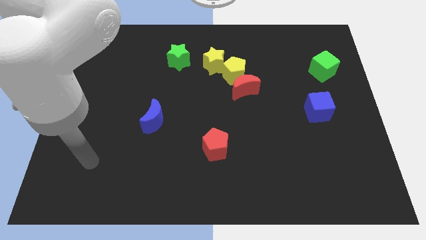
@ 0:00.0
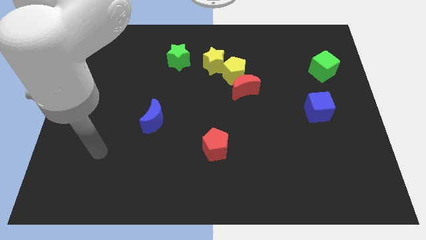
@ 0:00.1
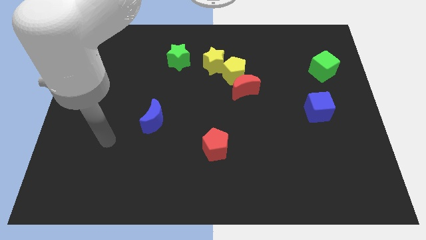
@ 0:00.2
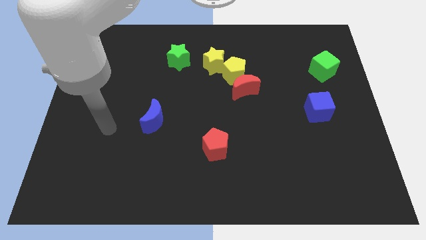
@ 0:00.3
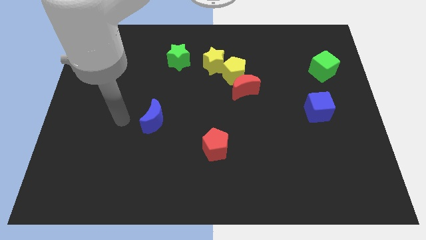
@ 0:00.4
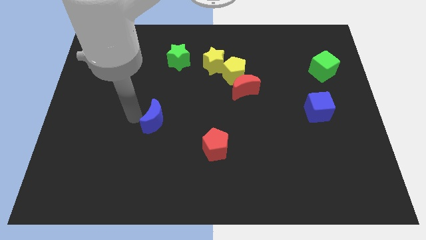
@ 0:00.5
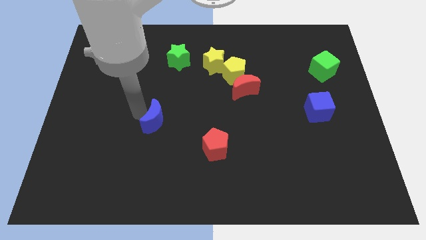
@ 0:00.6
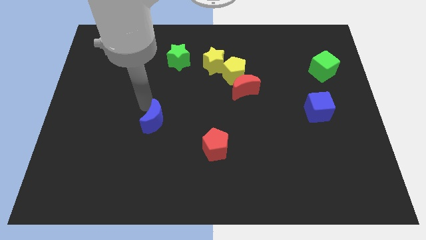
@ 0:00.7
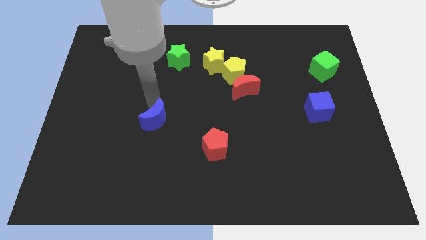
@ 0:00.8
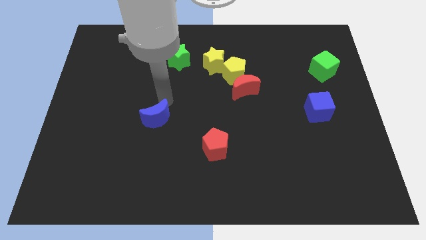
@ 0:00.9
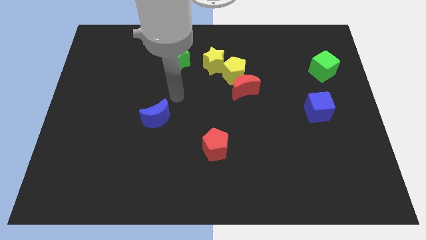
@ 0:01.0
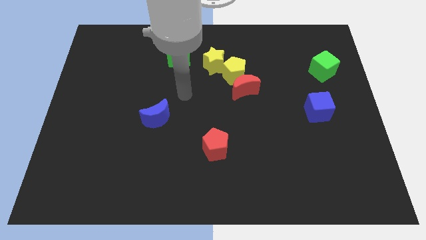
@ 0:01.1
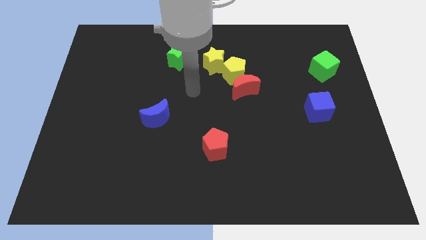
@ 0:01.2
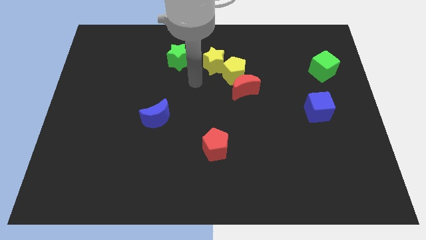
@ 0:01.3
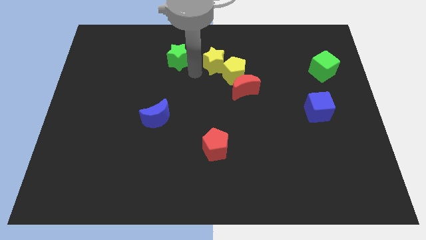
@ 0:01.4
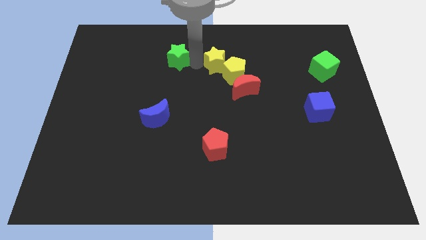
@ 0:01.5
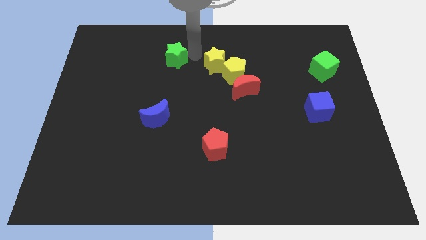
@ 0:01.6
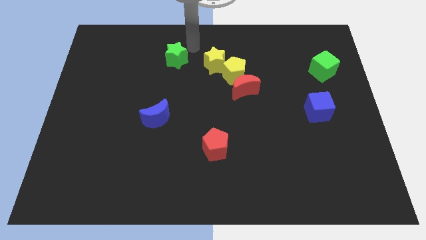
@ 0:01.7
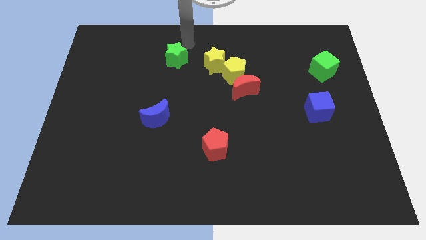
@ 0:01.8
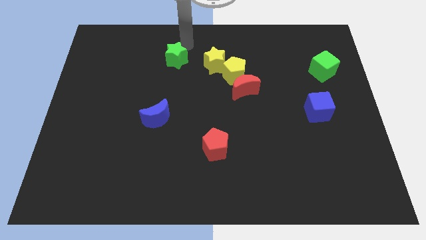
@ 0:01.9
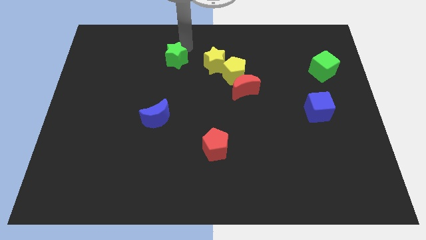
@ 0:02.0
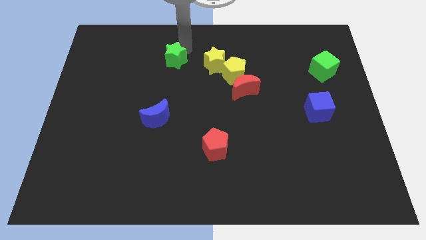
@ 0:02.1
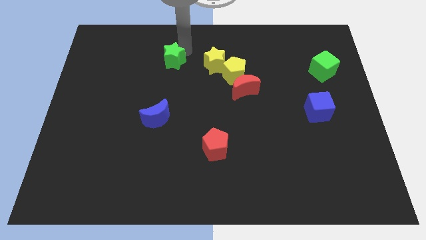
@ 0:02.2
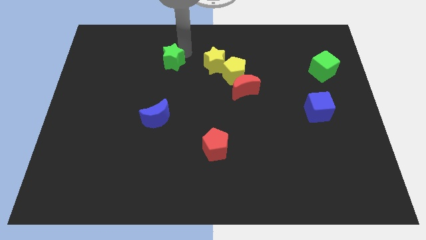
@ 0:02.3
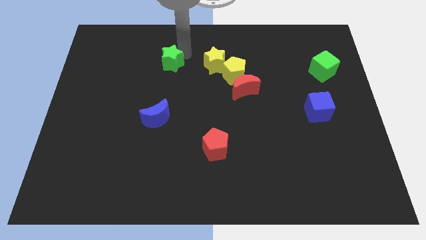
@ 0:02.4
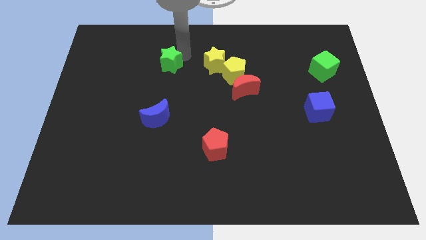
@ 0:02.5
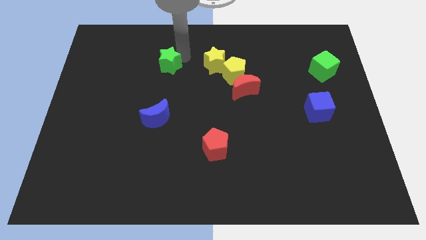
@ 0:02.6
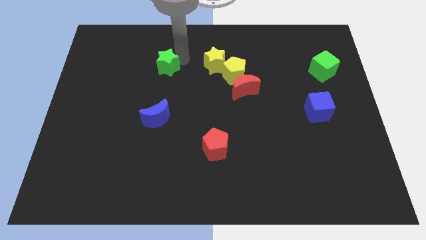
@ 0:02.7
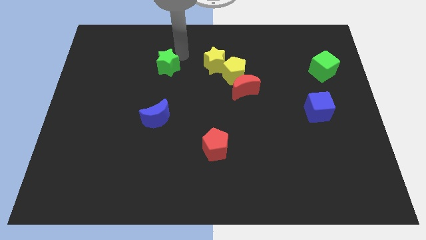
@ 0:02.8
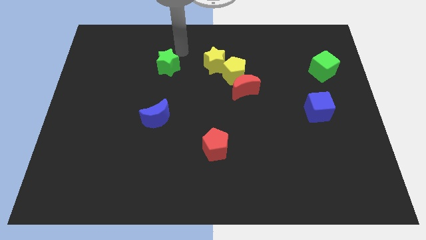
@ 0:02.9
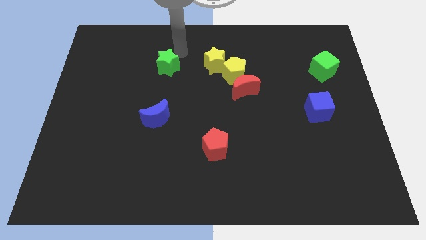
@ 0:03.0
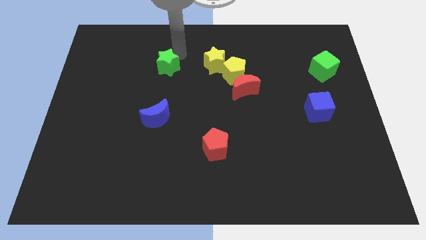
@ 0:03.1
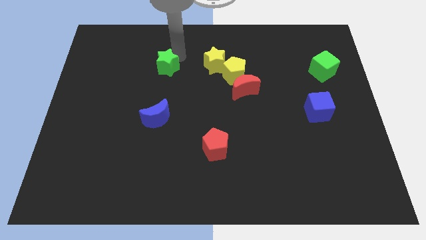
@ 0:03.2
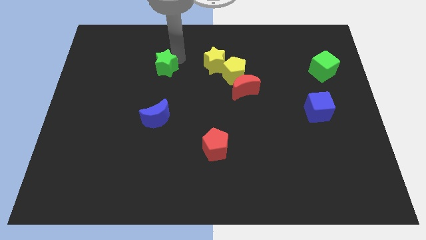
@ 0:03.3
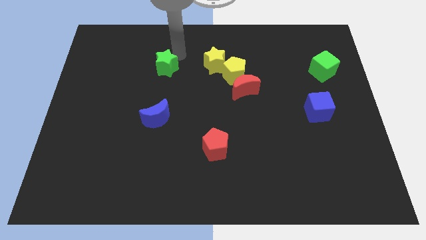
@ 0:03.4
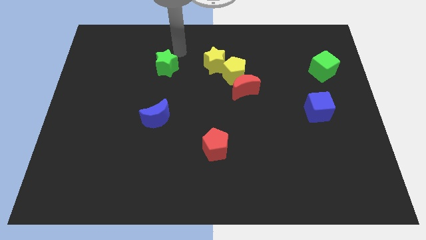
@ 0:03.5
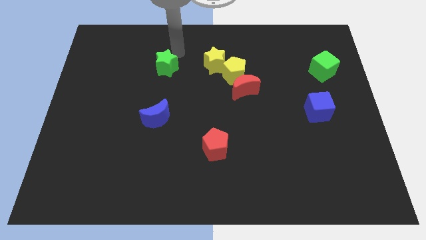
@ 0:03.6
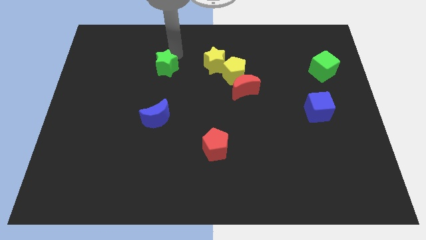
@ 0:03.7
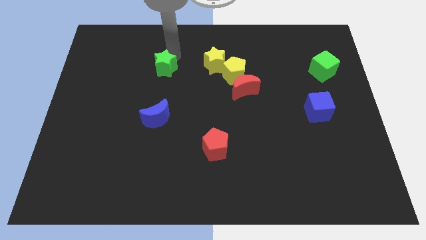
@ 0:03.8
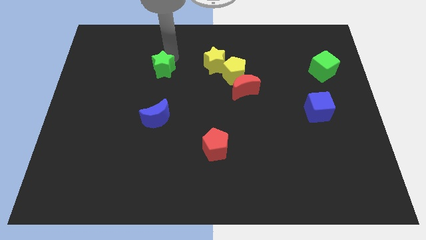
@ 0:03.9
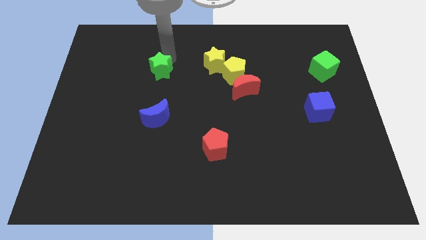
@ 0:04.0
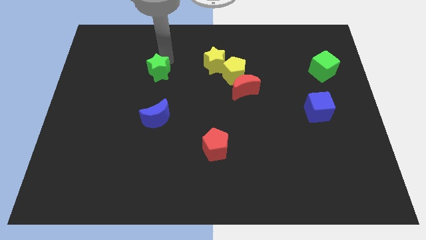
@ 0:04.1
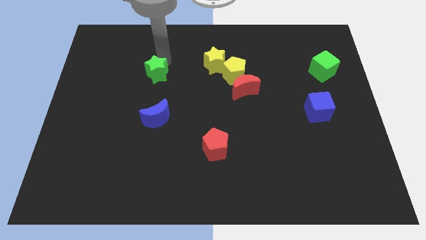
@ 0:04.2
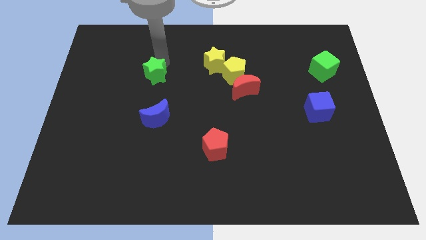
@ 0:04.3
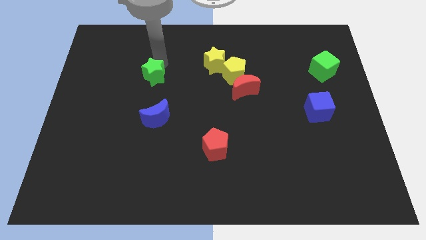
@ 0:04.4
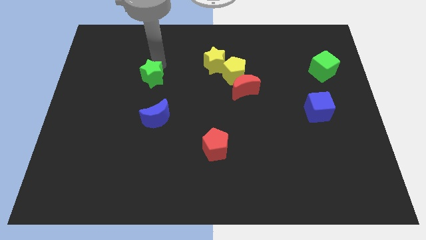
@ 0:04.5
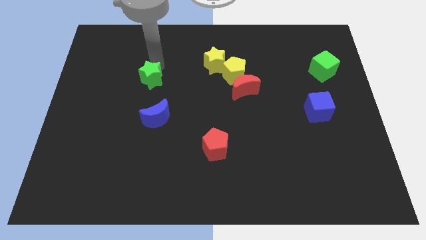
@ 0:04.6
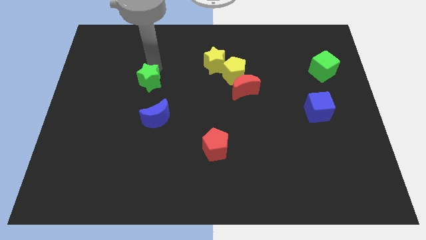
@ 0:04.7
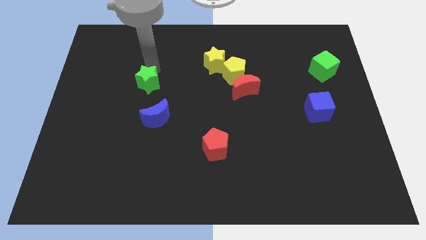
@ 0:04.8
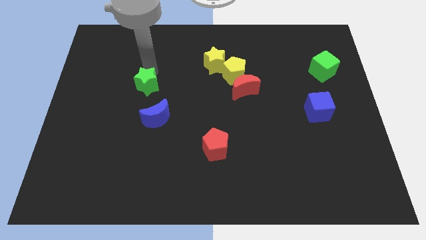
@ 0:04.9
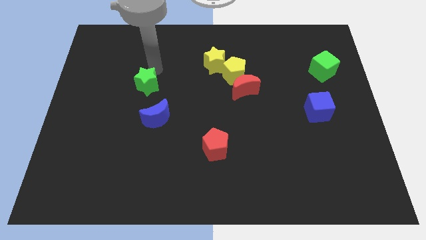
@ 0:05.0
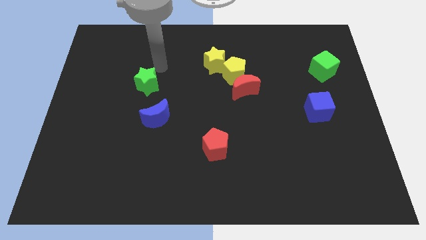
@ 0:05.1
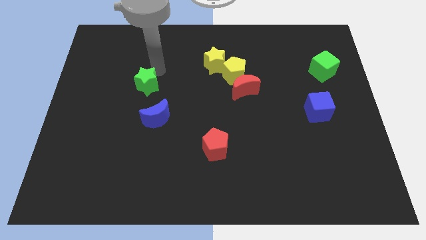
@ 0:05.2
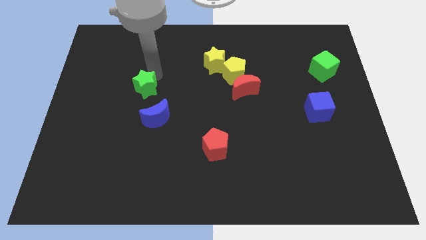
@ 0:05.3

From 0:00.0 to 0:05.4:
move the green star diagonally up and to the left of the blue moon

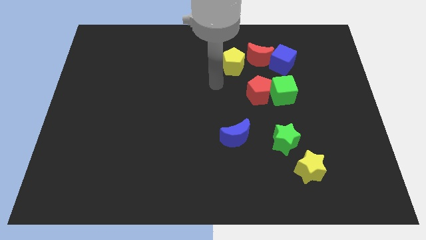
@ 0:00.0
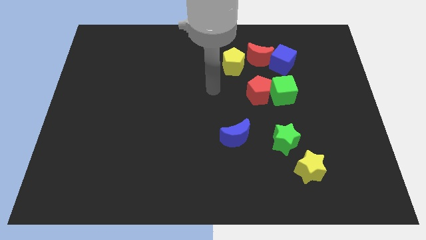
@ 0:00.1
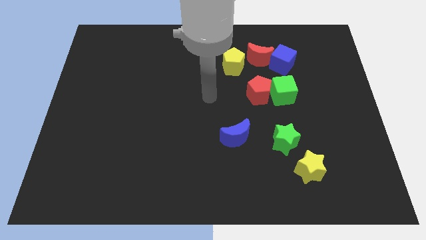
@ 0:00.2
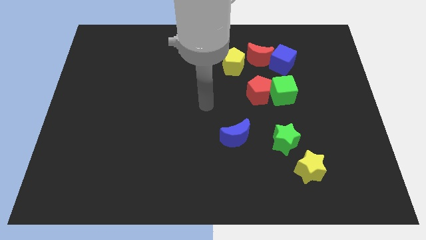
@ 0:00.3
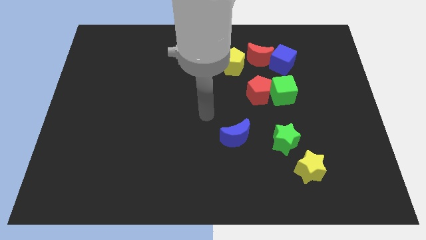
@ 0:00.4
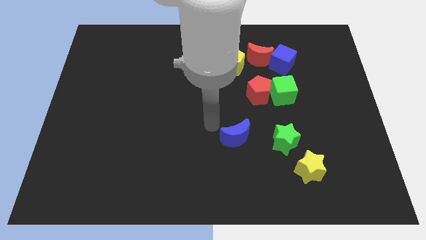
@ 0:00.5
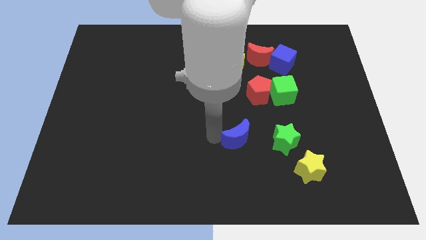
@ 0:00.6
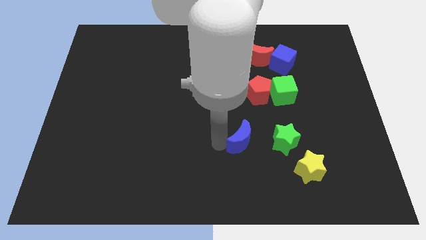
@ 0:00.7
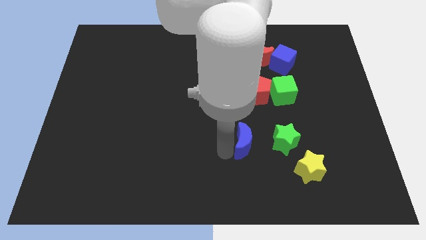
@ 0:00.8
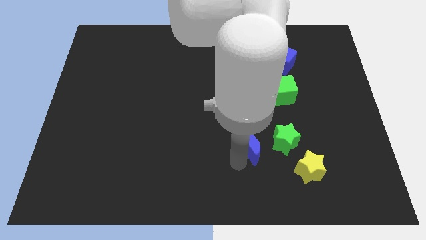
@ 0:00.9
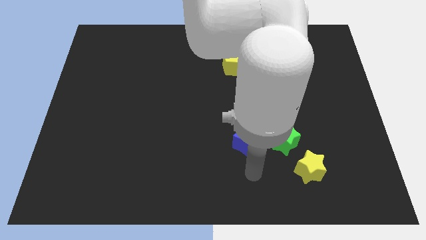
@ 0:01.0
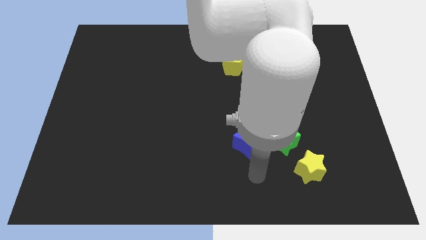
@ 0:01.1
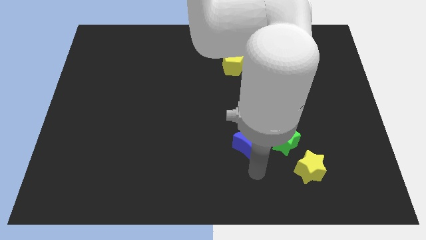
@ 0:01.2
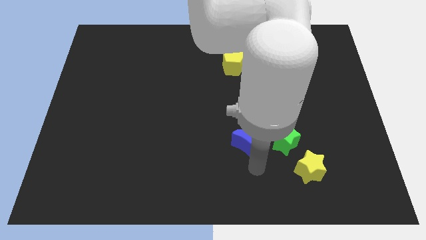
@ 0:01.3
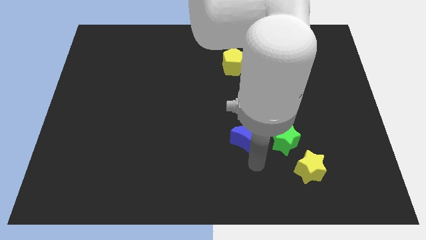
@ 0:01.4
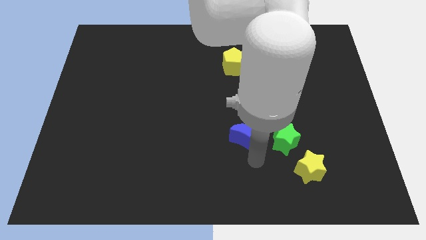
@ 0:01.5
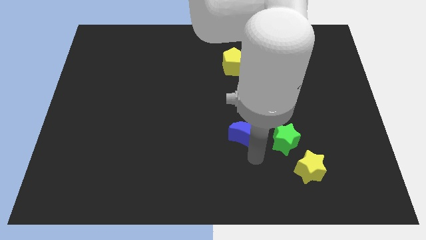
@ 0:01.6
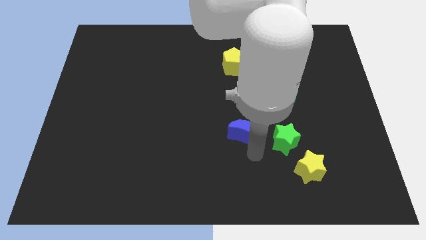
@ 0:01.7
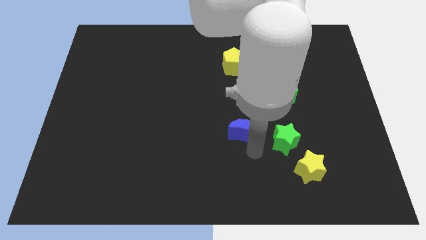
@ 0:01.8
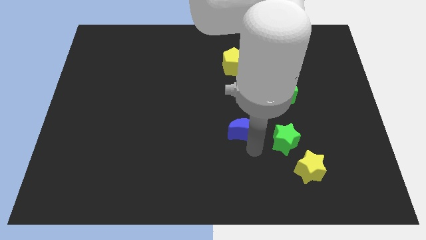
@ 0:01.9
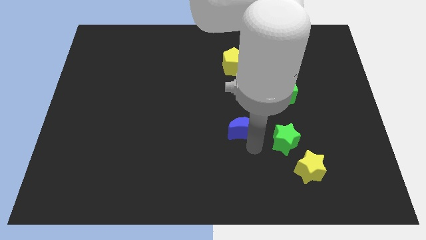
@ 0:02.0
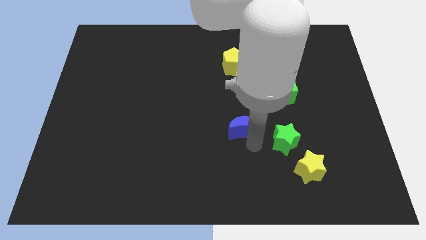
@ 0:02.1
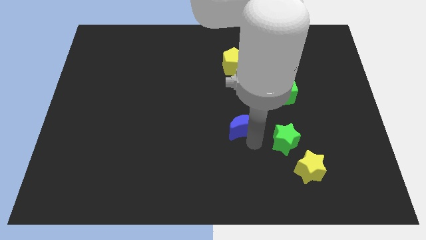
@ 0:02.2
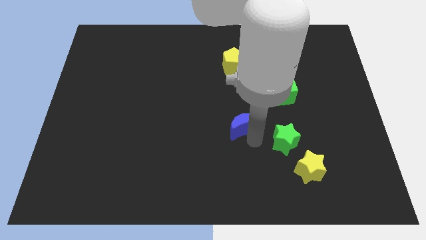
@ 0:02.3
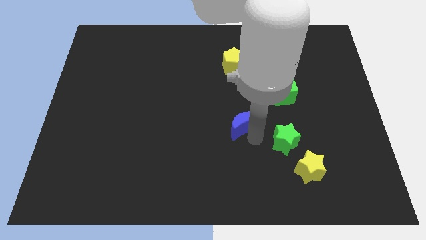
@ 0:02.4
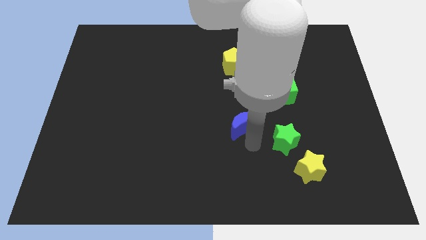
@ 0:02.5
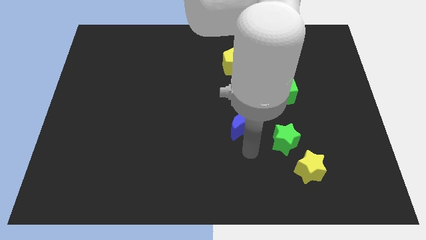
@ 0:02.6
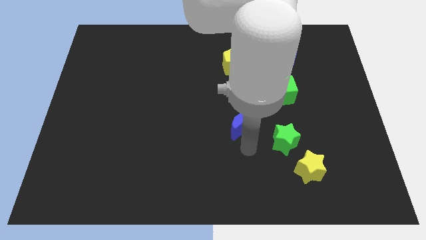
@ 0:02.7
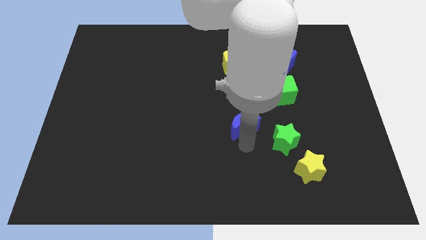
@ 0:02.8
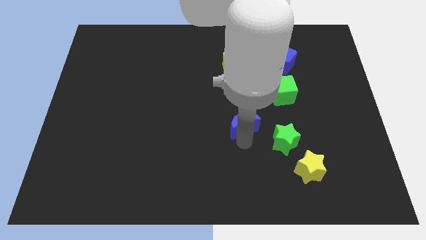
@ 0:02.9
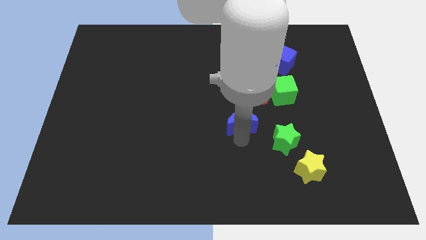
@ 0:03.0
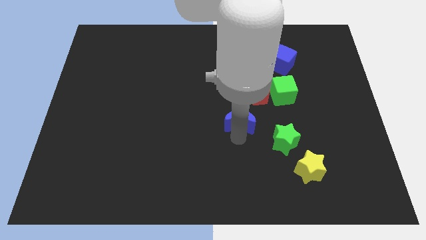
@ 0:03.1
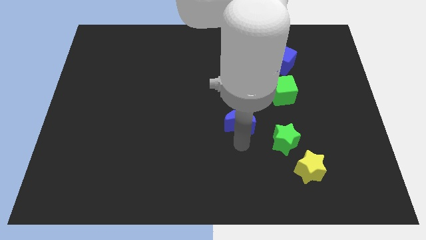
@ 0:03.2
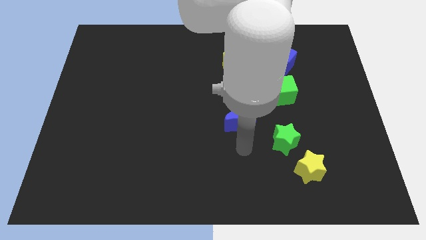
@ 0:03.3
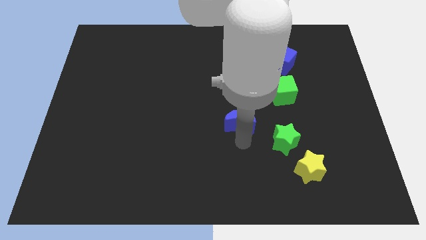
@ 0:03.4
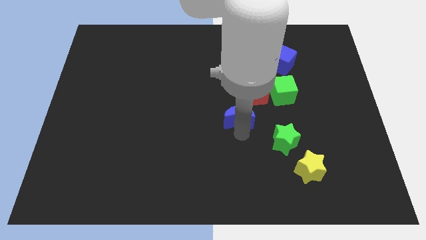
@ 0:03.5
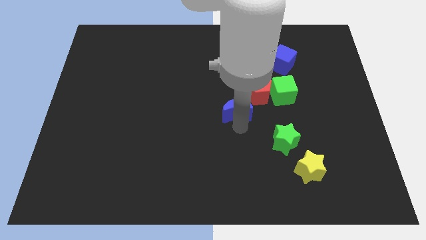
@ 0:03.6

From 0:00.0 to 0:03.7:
slide the blue moon to the bottom of the yellow pentagon
